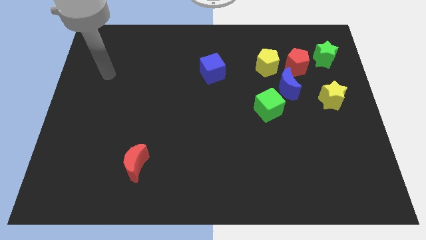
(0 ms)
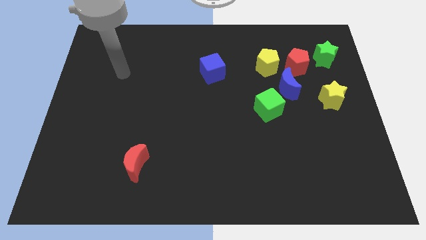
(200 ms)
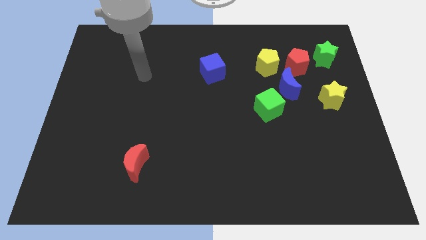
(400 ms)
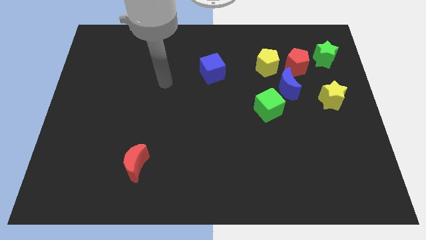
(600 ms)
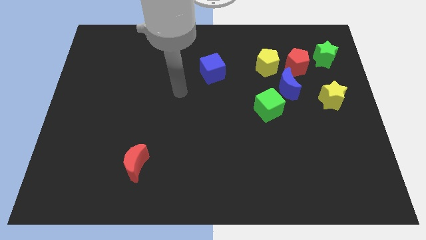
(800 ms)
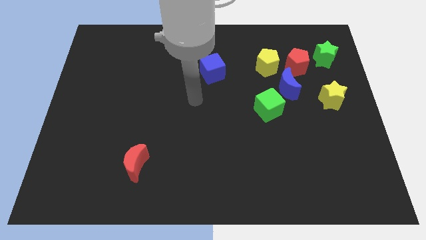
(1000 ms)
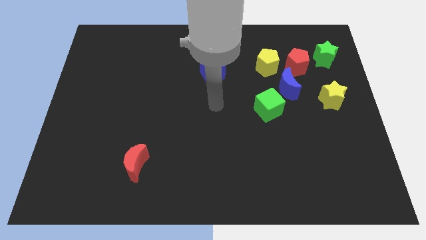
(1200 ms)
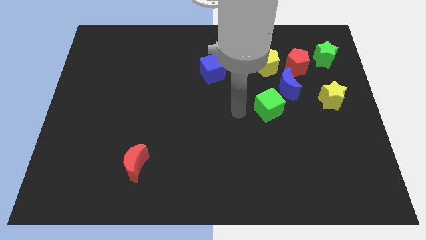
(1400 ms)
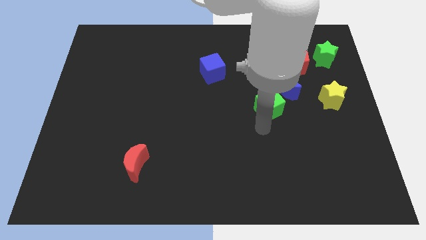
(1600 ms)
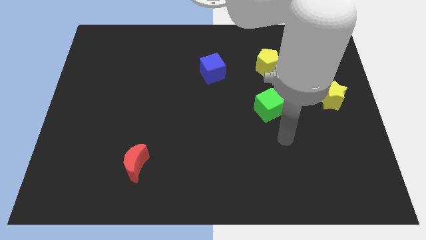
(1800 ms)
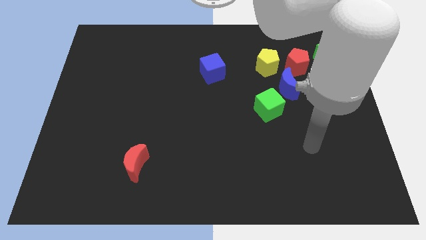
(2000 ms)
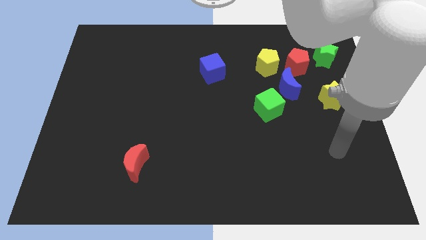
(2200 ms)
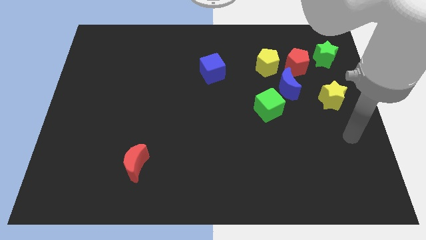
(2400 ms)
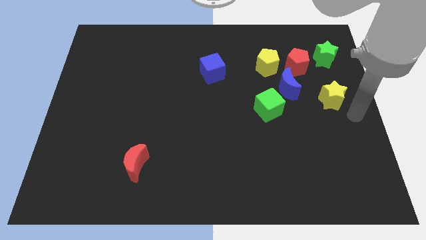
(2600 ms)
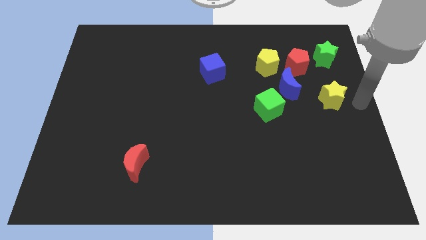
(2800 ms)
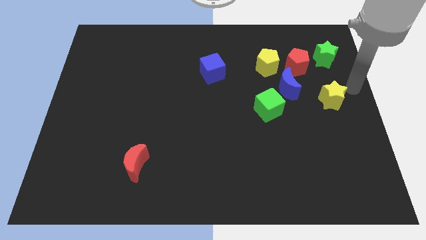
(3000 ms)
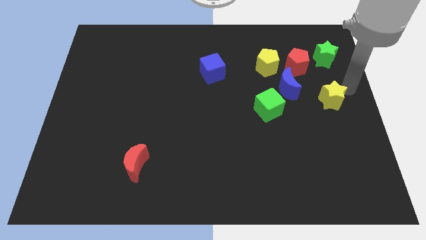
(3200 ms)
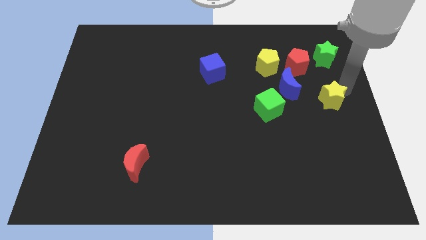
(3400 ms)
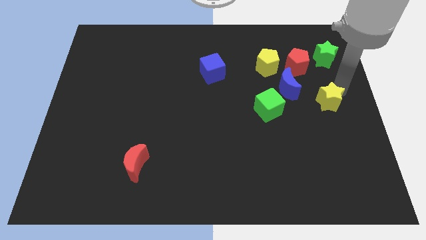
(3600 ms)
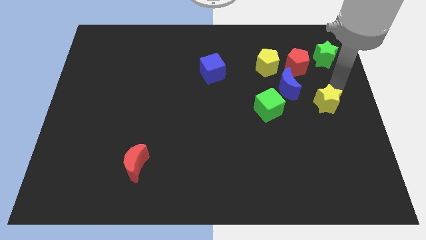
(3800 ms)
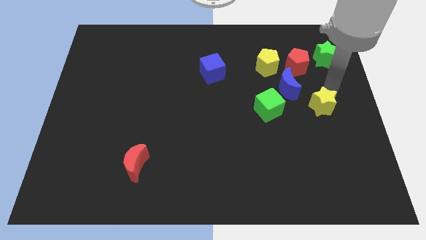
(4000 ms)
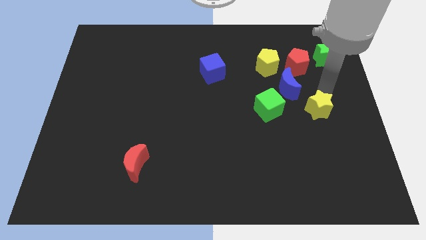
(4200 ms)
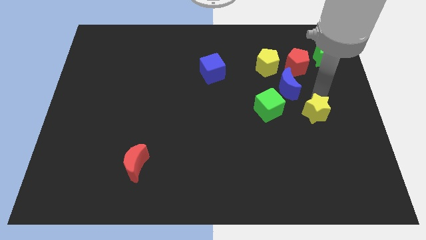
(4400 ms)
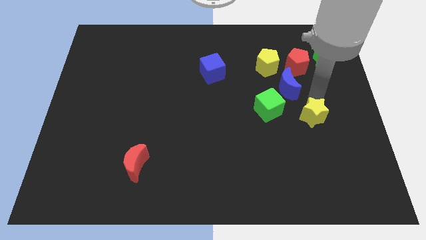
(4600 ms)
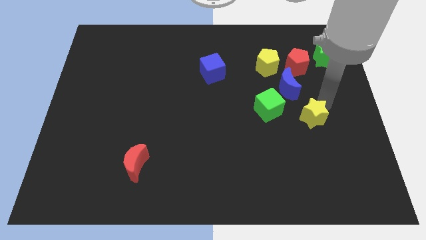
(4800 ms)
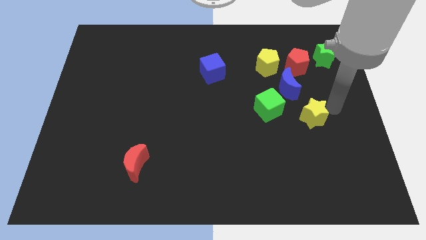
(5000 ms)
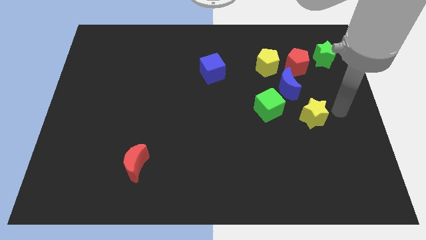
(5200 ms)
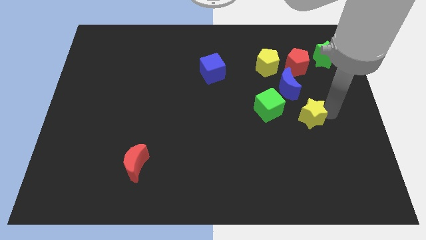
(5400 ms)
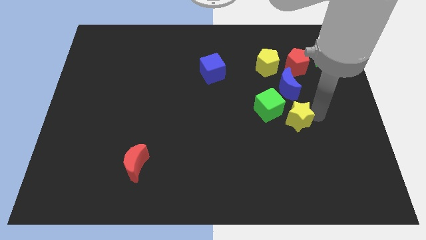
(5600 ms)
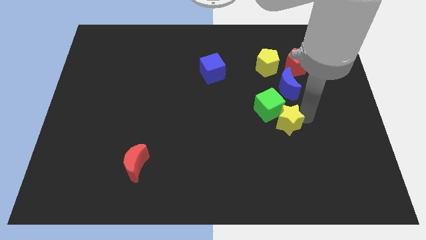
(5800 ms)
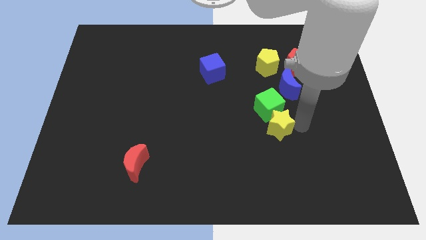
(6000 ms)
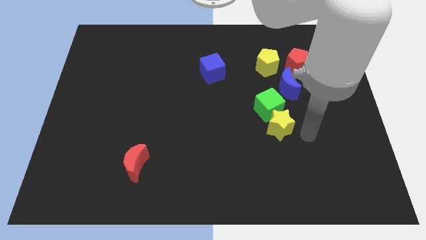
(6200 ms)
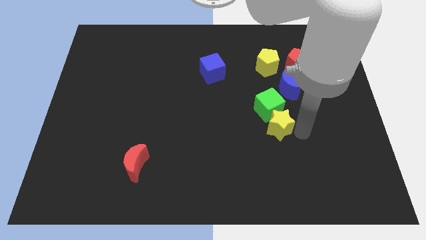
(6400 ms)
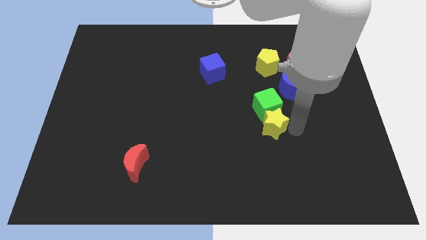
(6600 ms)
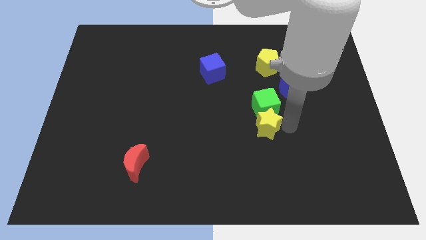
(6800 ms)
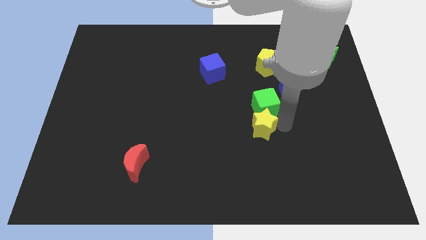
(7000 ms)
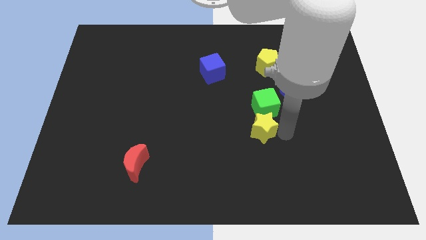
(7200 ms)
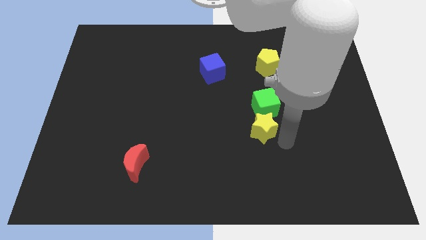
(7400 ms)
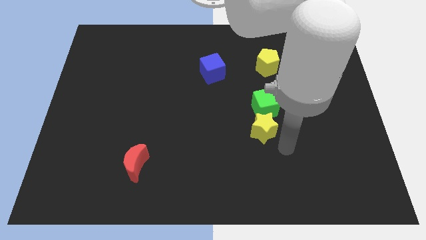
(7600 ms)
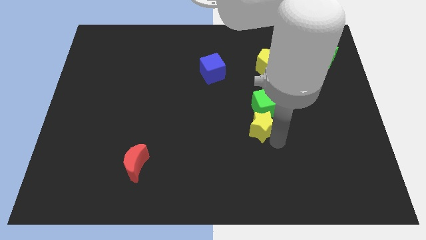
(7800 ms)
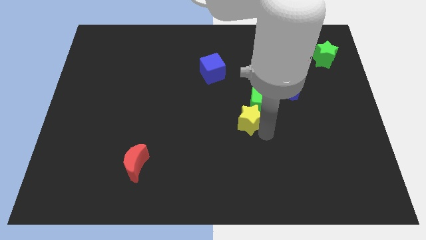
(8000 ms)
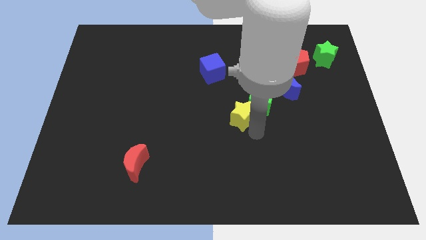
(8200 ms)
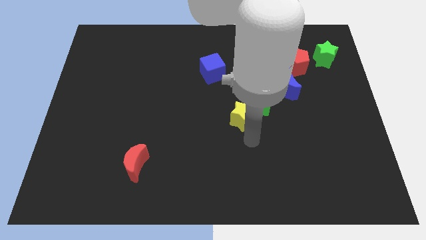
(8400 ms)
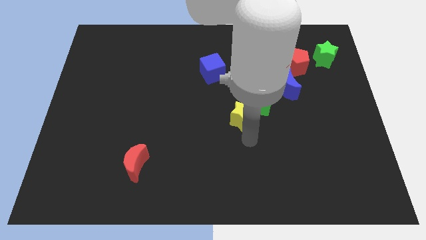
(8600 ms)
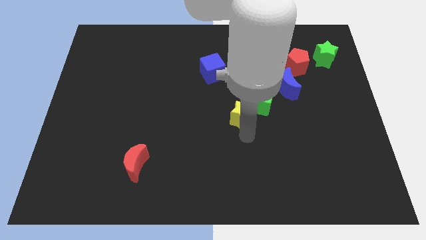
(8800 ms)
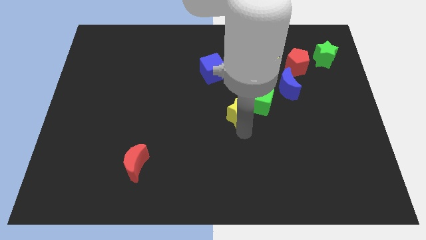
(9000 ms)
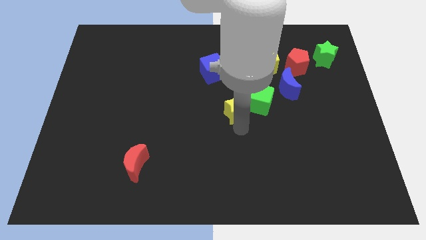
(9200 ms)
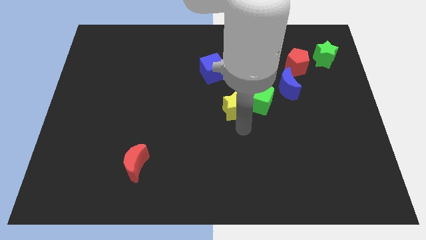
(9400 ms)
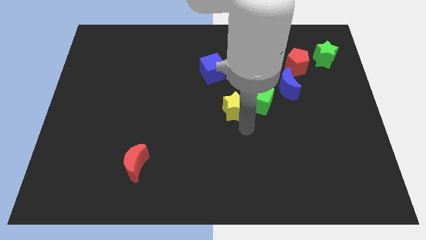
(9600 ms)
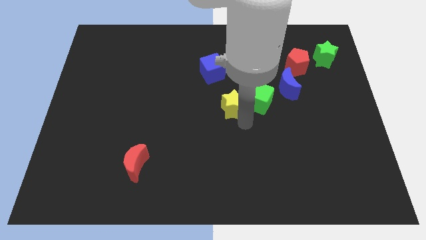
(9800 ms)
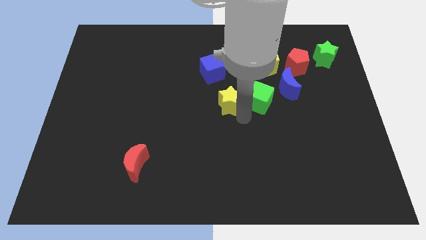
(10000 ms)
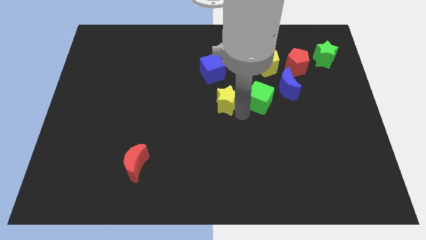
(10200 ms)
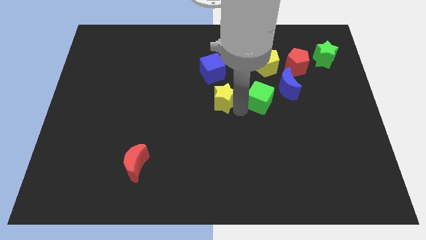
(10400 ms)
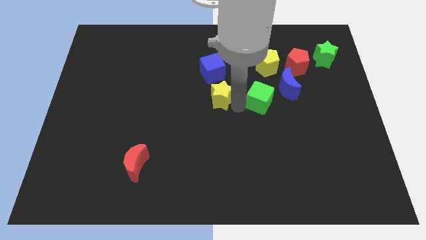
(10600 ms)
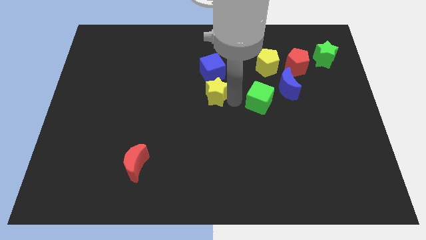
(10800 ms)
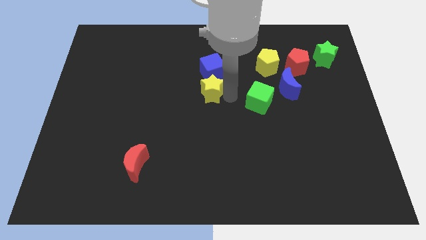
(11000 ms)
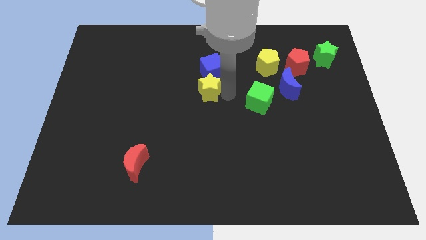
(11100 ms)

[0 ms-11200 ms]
push the yellow star next to the blue cube

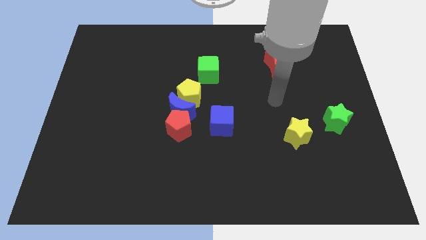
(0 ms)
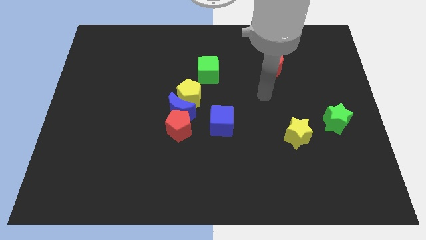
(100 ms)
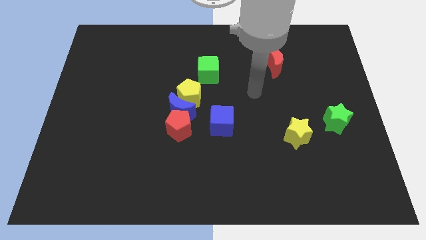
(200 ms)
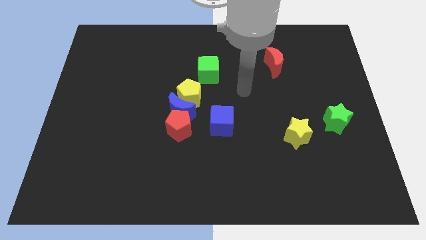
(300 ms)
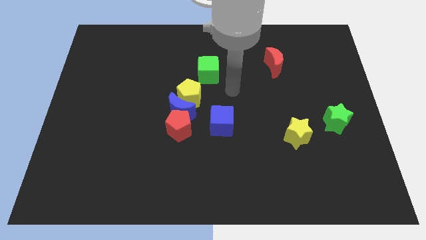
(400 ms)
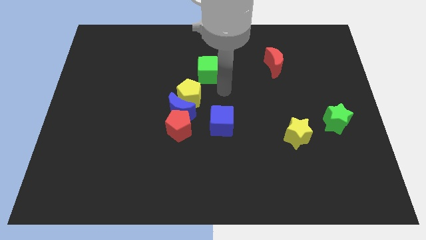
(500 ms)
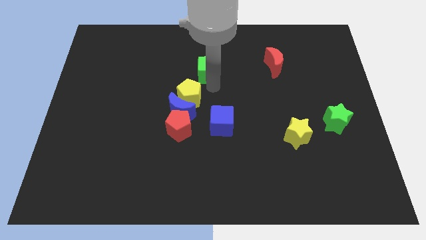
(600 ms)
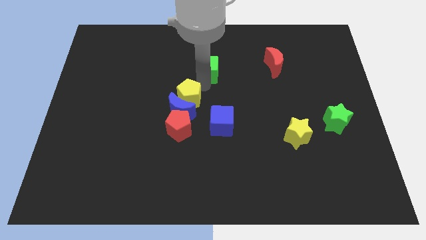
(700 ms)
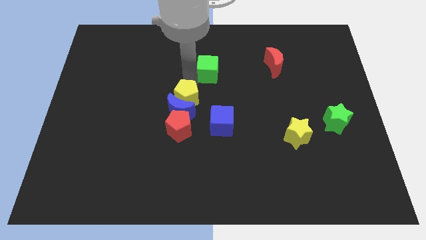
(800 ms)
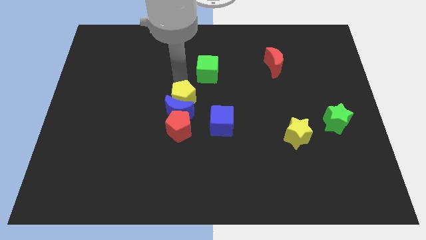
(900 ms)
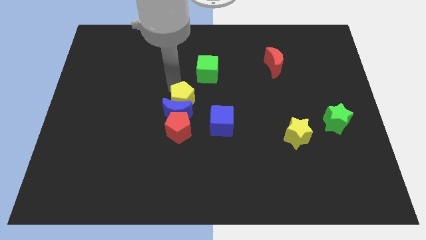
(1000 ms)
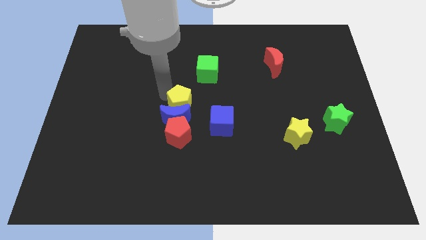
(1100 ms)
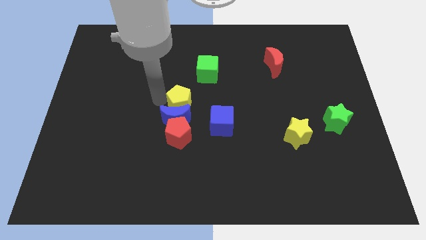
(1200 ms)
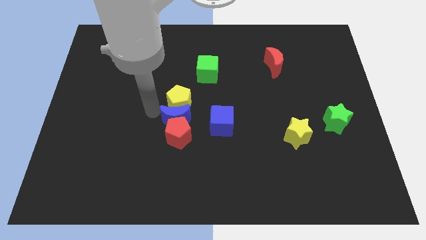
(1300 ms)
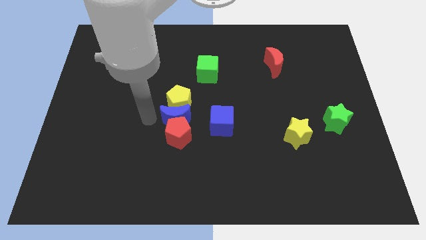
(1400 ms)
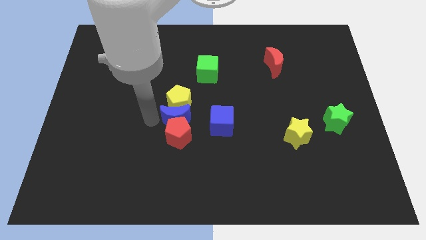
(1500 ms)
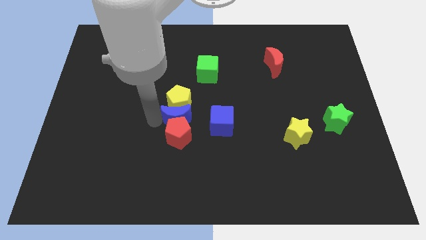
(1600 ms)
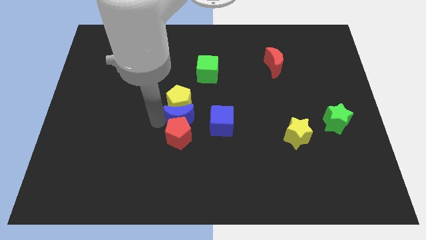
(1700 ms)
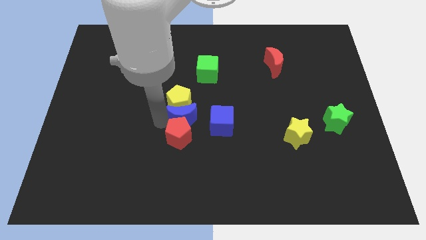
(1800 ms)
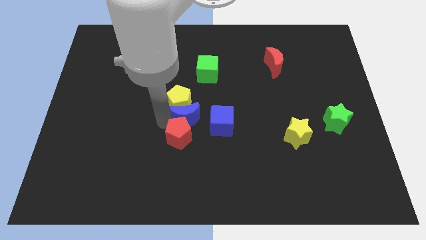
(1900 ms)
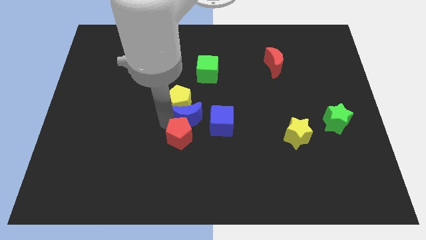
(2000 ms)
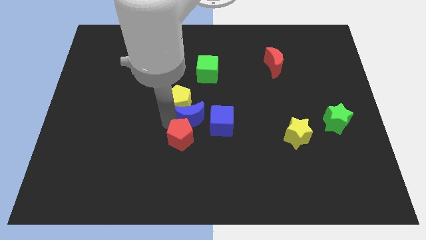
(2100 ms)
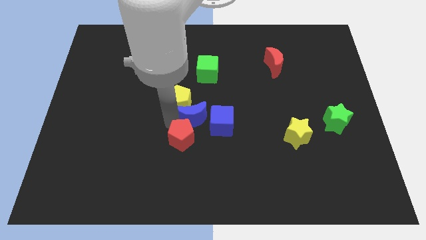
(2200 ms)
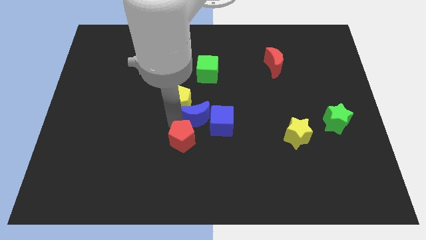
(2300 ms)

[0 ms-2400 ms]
slide the blue moon towards the blue cube

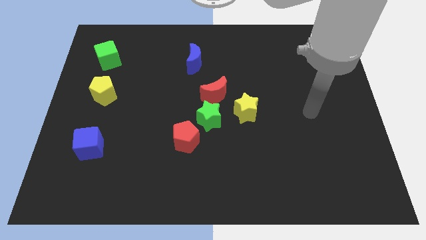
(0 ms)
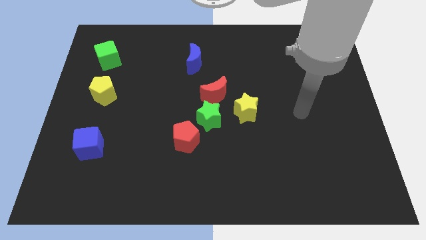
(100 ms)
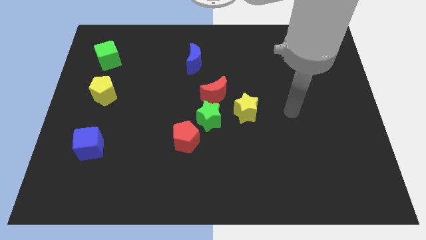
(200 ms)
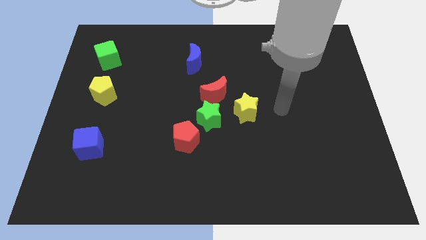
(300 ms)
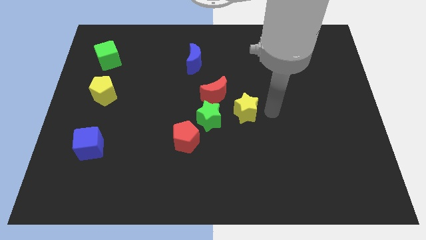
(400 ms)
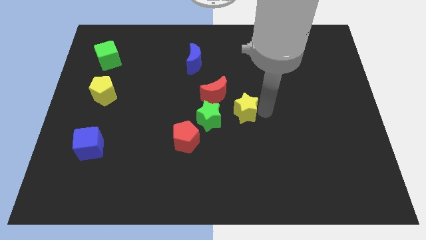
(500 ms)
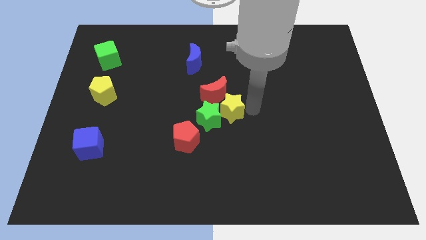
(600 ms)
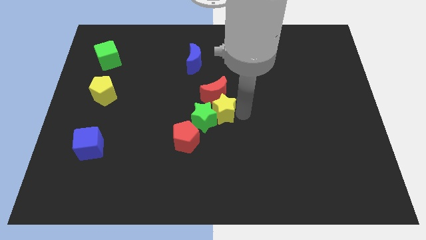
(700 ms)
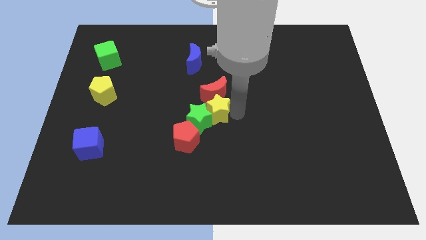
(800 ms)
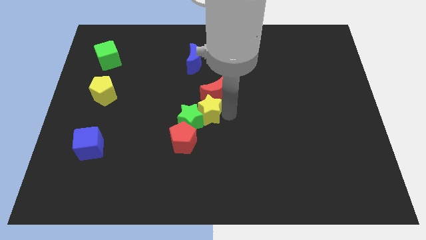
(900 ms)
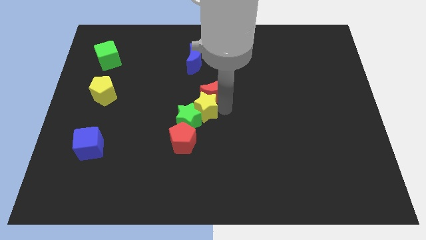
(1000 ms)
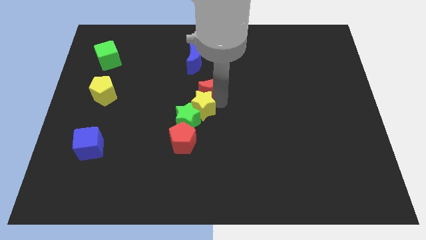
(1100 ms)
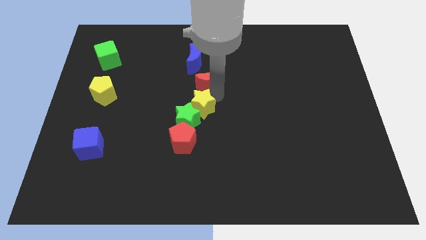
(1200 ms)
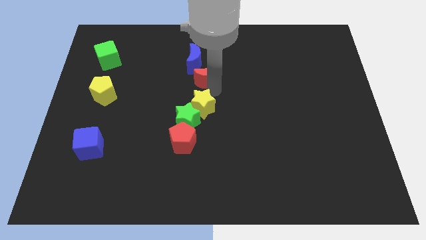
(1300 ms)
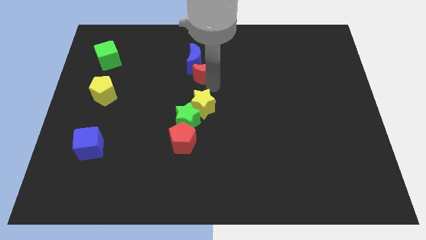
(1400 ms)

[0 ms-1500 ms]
push the red moon close to the blue moon
